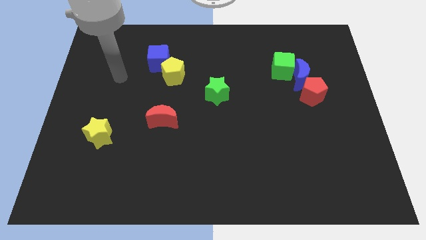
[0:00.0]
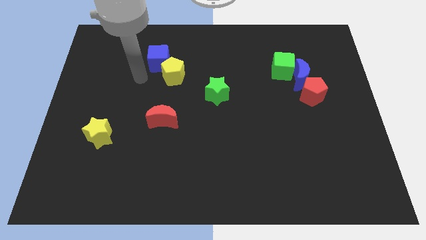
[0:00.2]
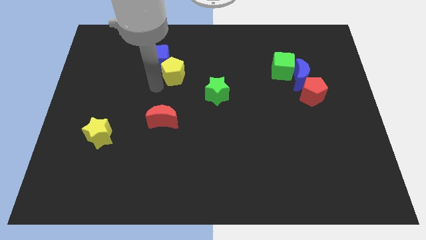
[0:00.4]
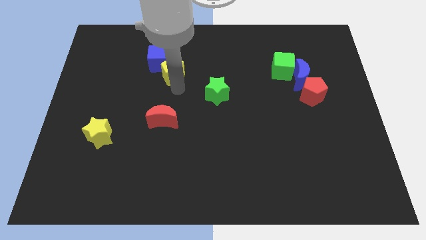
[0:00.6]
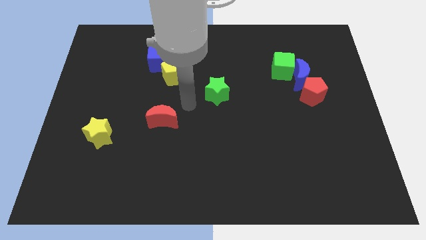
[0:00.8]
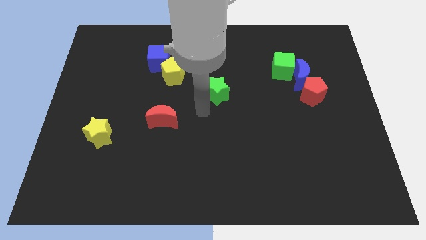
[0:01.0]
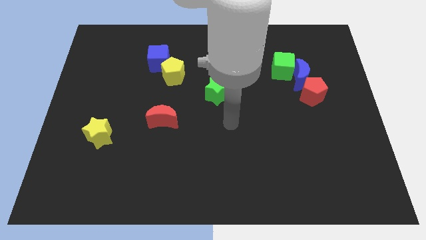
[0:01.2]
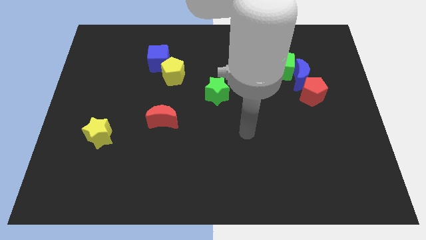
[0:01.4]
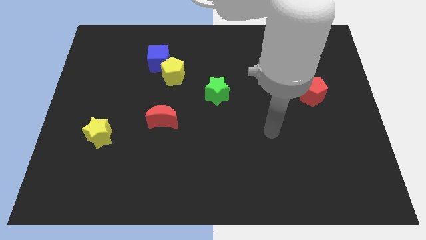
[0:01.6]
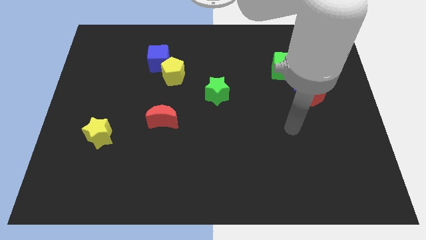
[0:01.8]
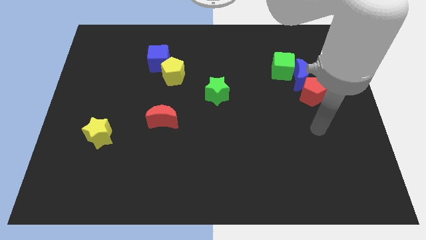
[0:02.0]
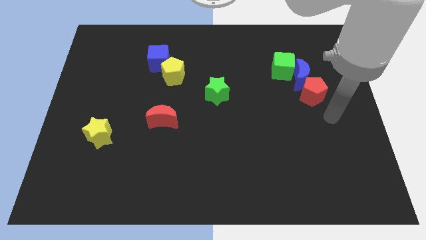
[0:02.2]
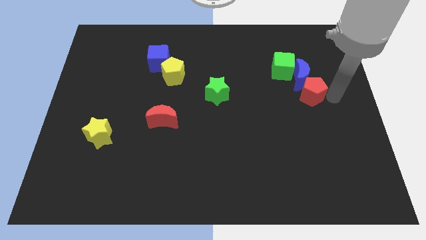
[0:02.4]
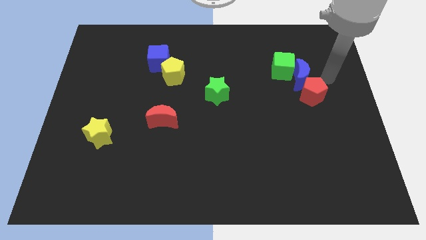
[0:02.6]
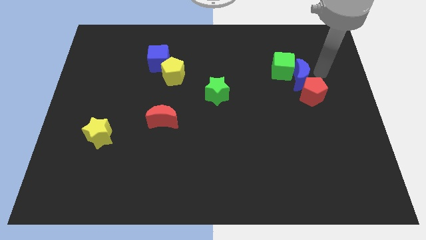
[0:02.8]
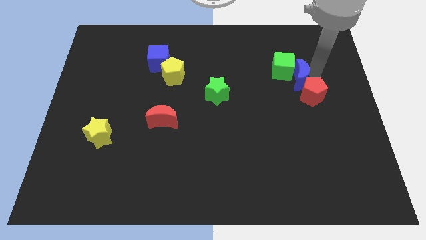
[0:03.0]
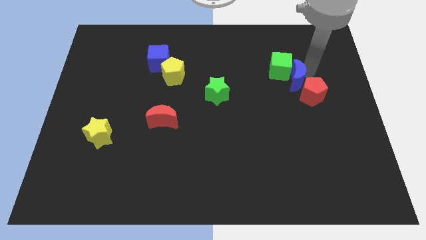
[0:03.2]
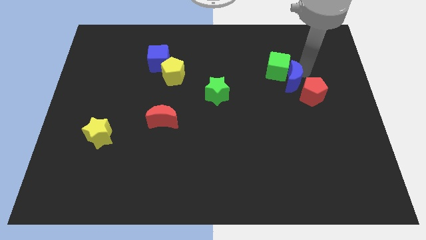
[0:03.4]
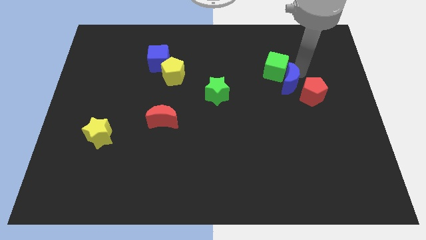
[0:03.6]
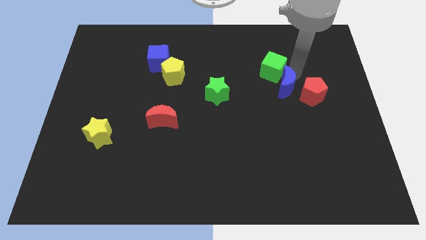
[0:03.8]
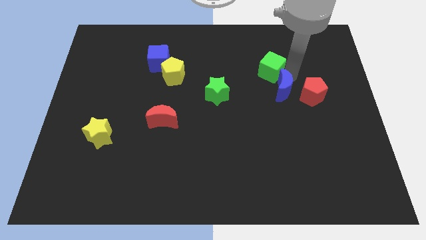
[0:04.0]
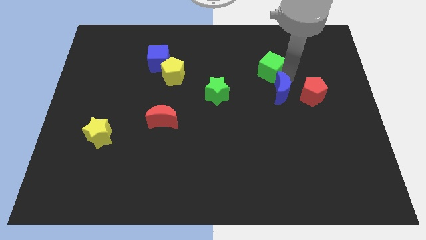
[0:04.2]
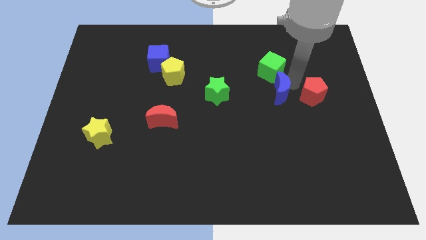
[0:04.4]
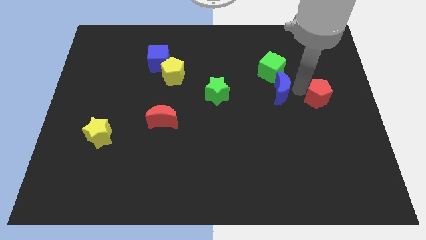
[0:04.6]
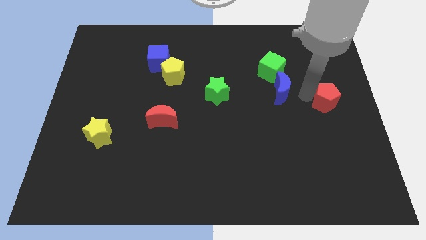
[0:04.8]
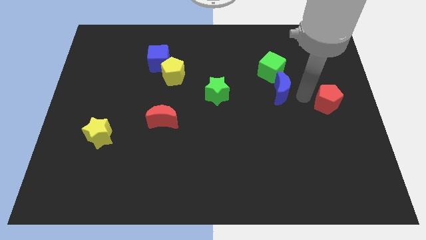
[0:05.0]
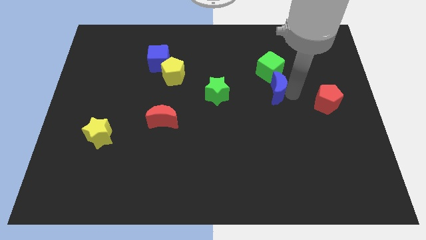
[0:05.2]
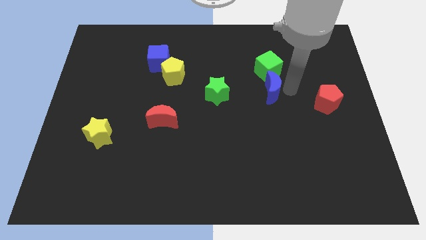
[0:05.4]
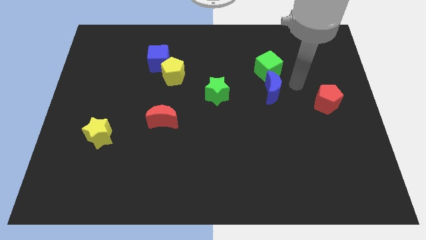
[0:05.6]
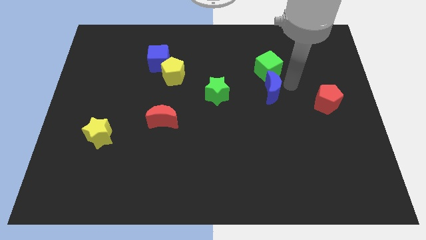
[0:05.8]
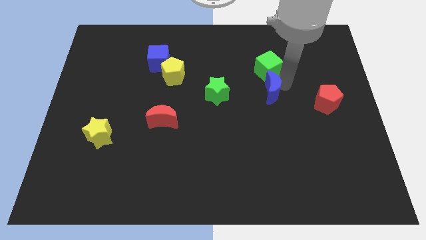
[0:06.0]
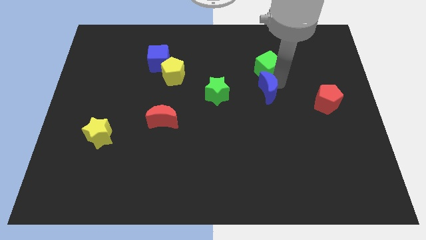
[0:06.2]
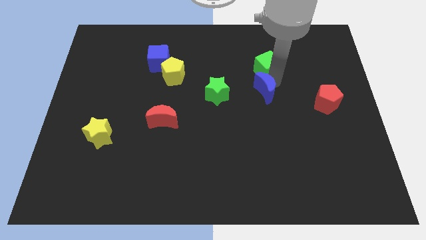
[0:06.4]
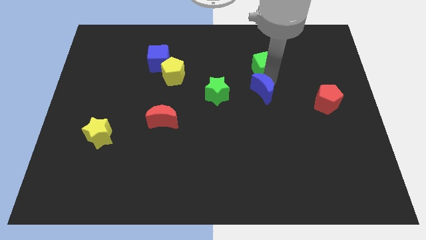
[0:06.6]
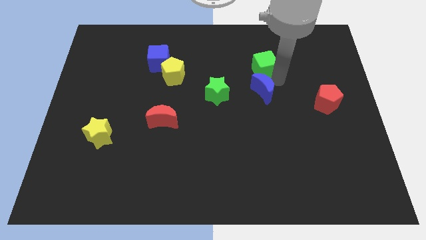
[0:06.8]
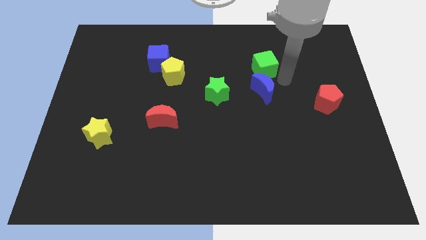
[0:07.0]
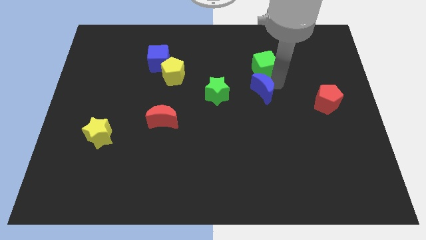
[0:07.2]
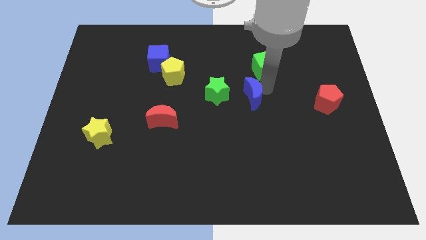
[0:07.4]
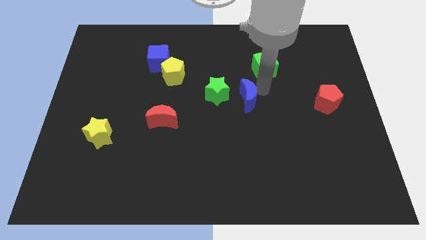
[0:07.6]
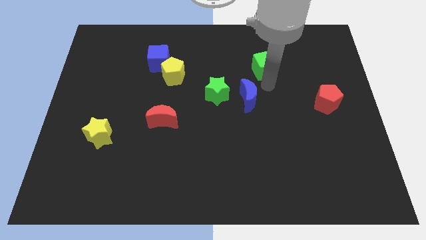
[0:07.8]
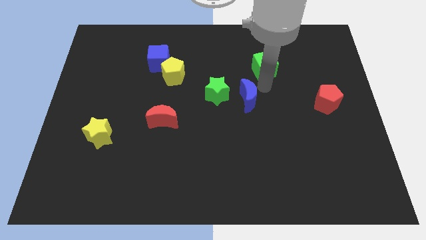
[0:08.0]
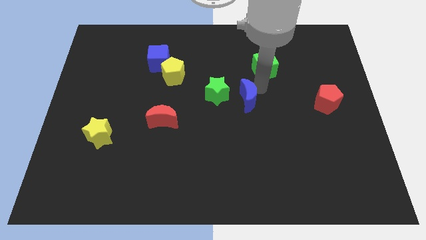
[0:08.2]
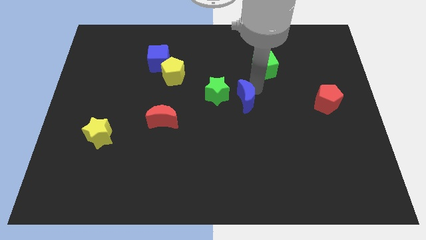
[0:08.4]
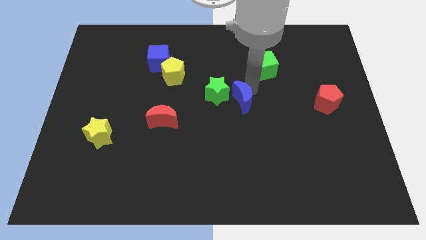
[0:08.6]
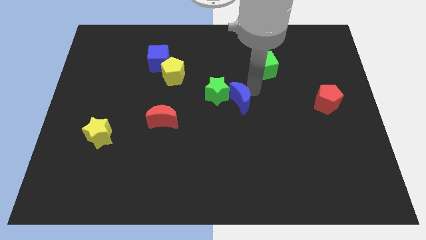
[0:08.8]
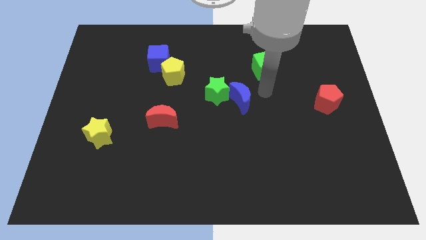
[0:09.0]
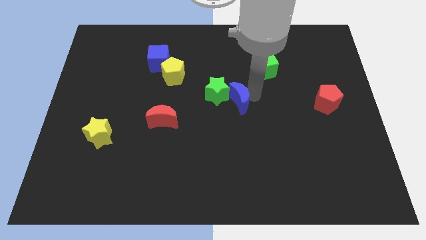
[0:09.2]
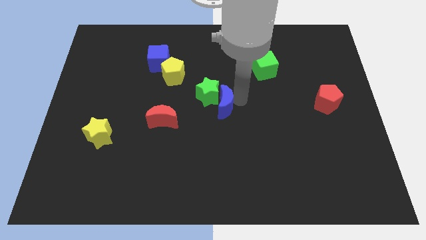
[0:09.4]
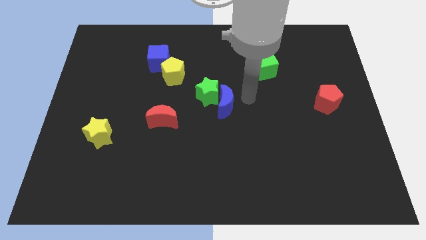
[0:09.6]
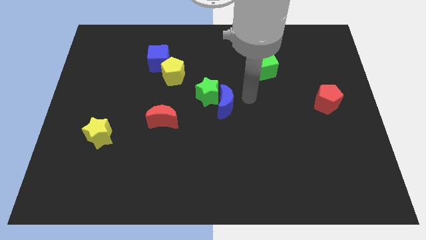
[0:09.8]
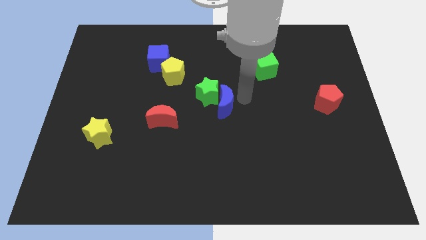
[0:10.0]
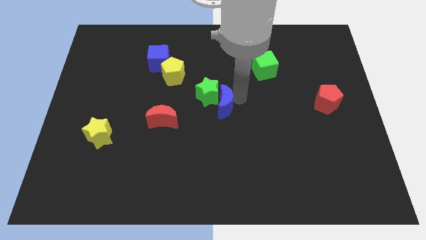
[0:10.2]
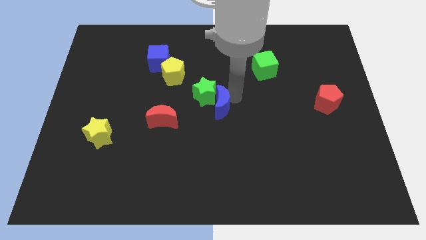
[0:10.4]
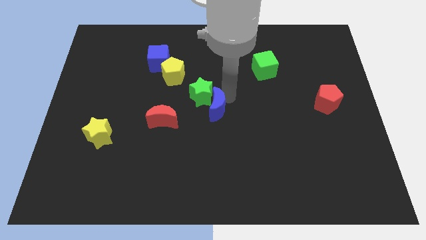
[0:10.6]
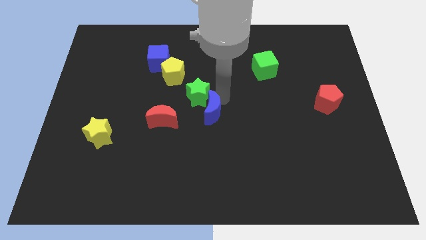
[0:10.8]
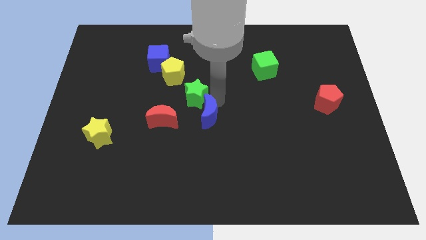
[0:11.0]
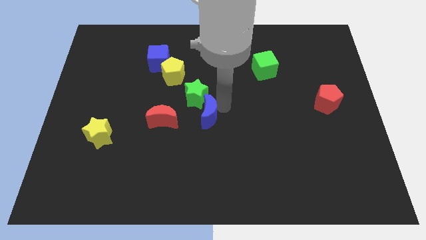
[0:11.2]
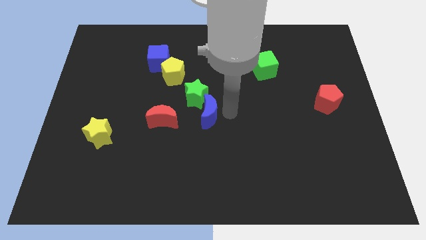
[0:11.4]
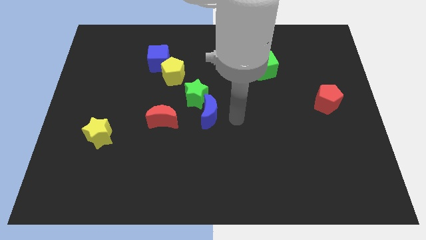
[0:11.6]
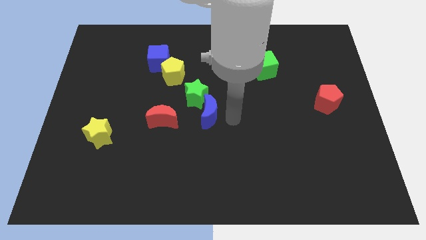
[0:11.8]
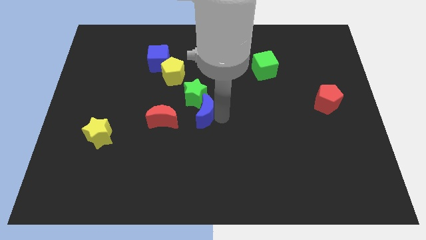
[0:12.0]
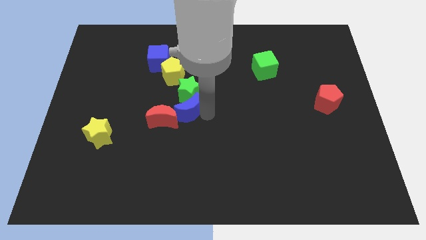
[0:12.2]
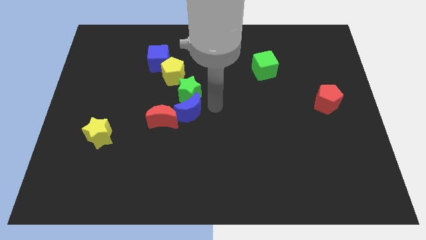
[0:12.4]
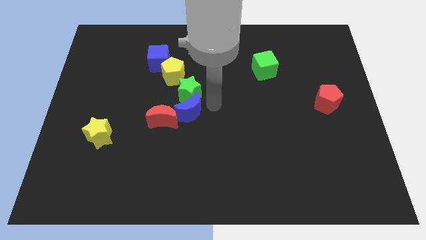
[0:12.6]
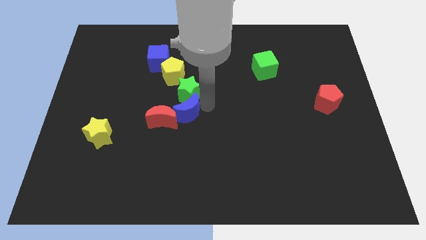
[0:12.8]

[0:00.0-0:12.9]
push the blue moon next to the red moon

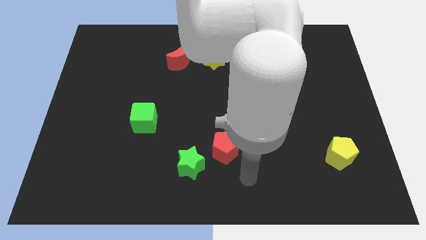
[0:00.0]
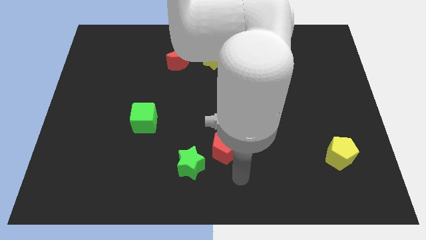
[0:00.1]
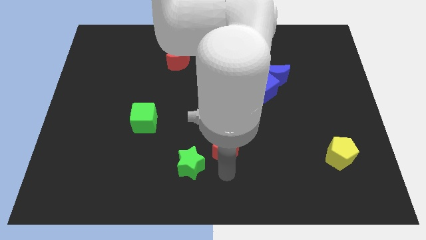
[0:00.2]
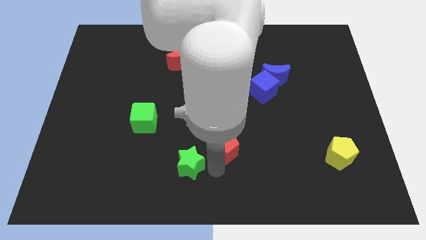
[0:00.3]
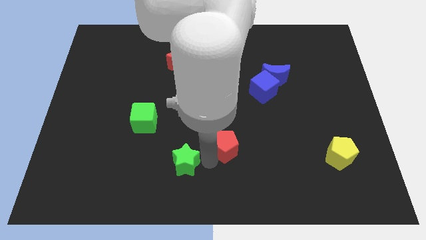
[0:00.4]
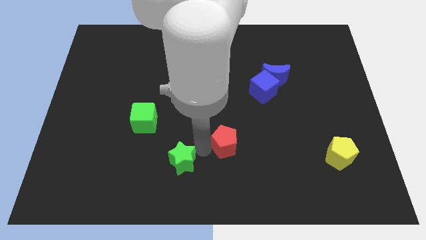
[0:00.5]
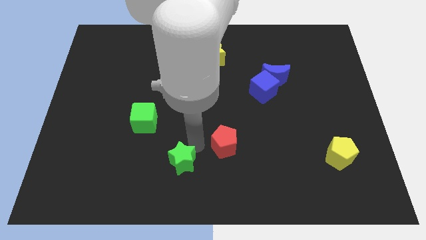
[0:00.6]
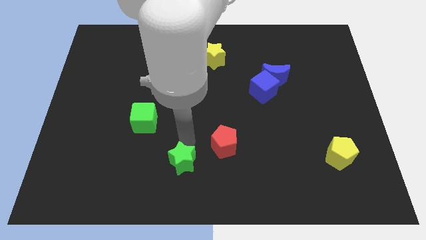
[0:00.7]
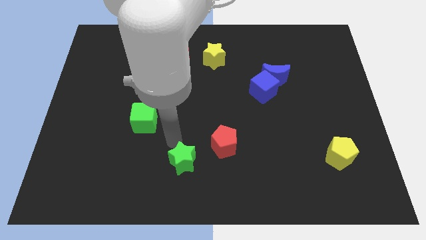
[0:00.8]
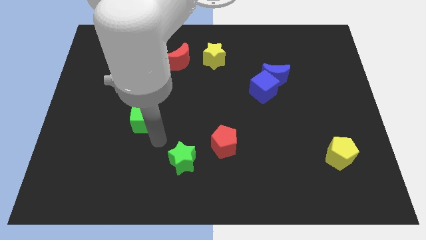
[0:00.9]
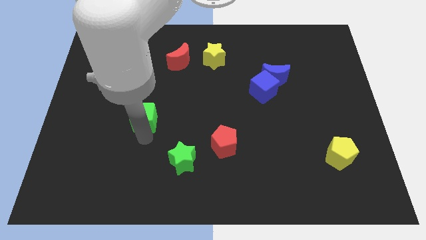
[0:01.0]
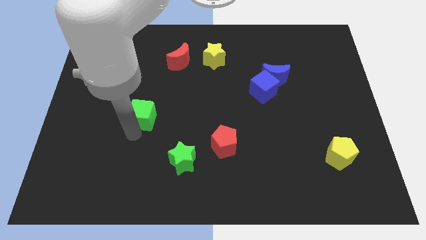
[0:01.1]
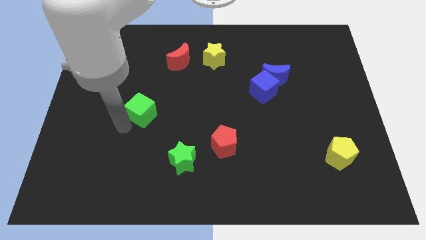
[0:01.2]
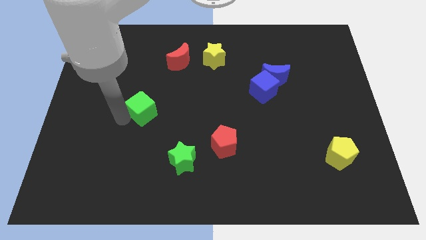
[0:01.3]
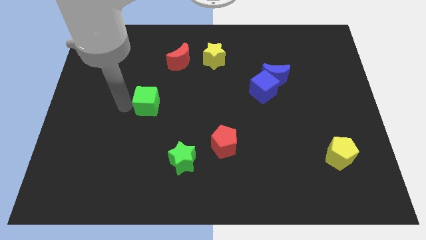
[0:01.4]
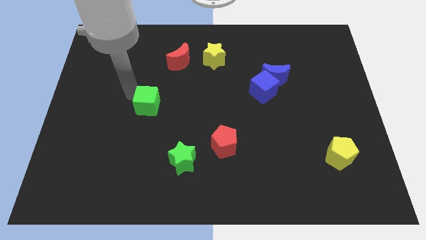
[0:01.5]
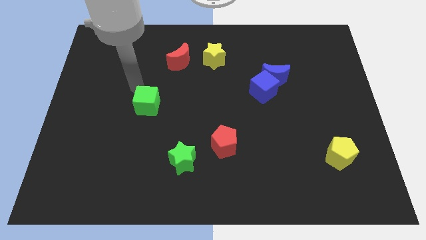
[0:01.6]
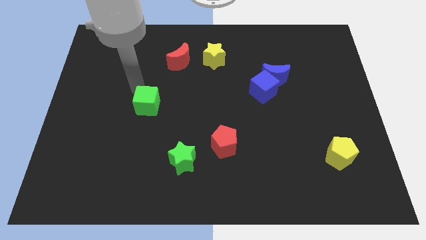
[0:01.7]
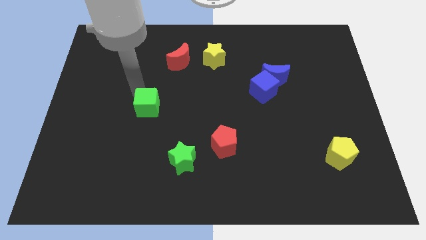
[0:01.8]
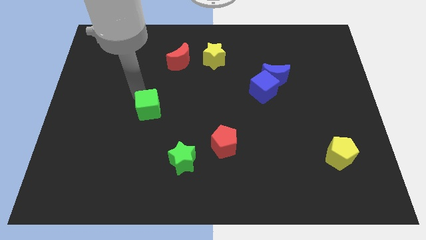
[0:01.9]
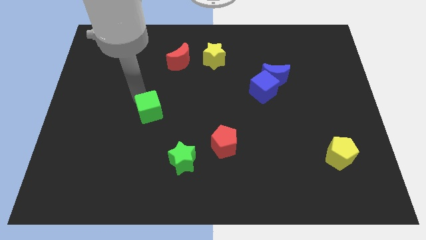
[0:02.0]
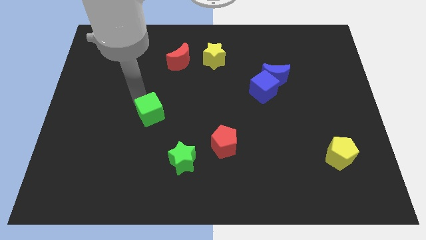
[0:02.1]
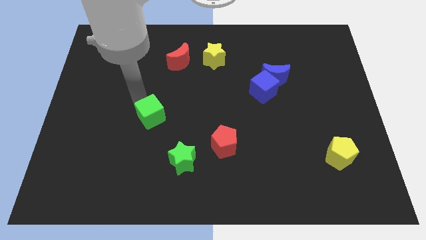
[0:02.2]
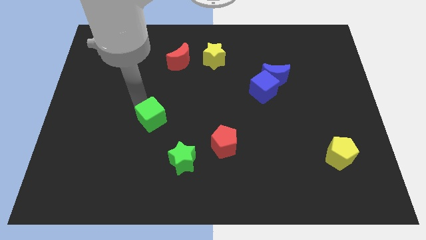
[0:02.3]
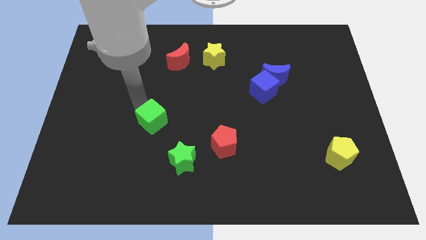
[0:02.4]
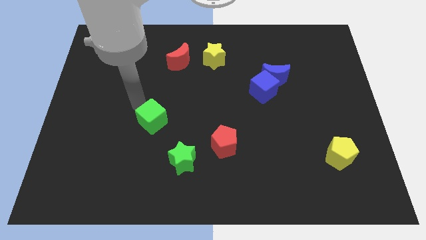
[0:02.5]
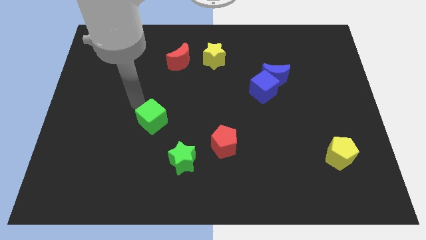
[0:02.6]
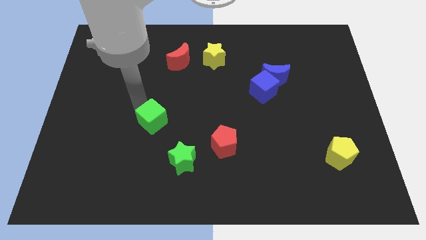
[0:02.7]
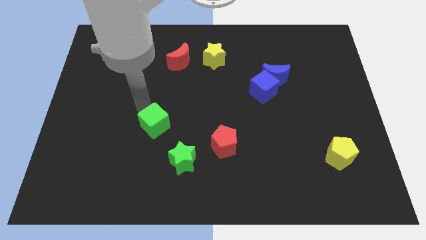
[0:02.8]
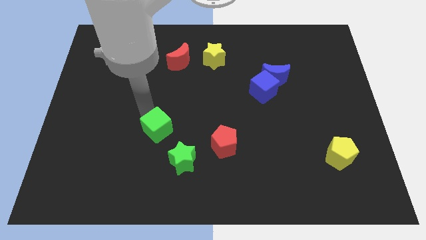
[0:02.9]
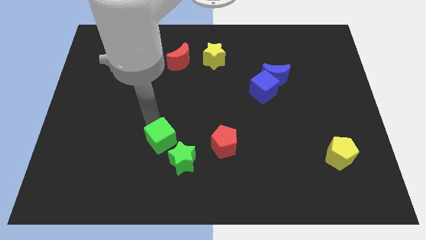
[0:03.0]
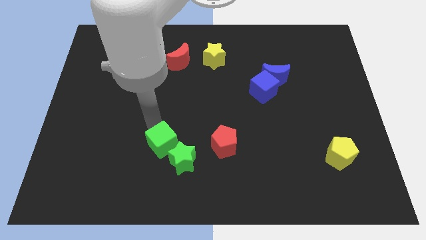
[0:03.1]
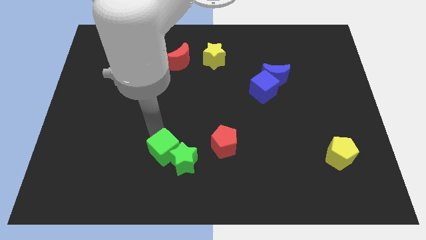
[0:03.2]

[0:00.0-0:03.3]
slide the green cube close to the green star
